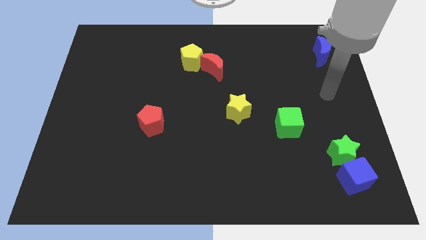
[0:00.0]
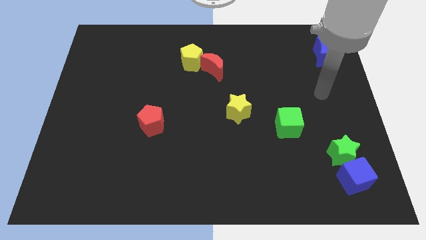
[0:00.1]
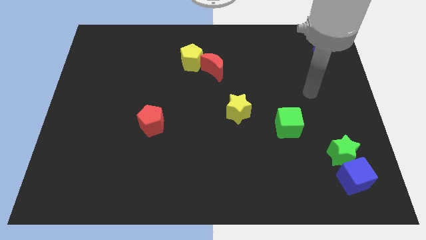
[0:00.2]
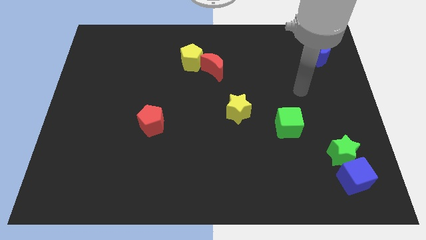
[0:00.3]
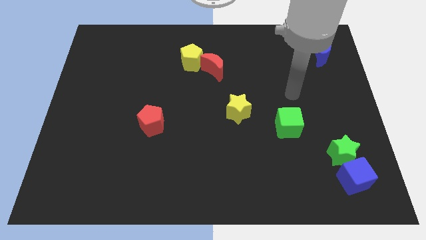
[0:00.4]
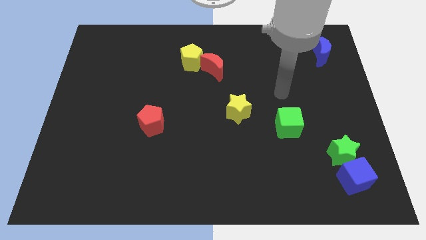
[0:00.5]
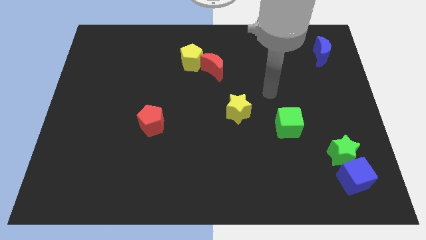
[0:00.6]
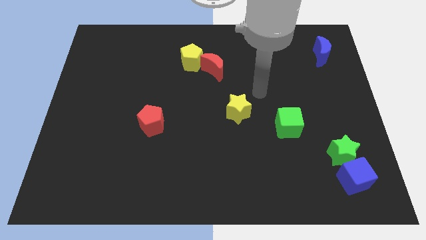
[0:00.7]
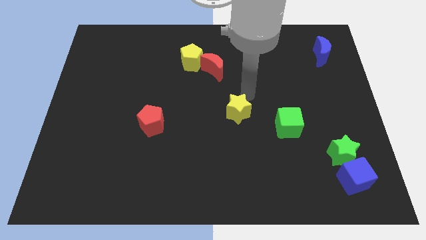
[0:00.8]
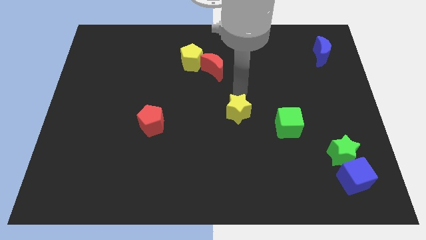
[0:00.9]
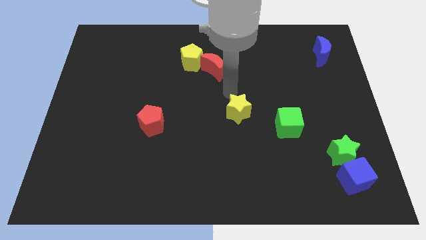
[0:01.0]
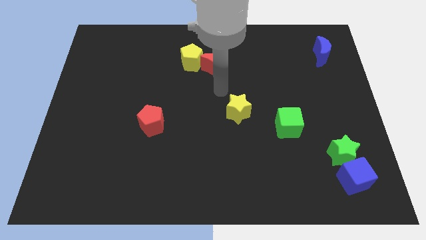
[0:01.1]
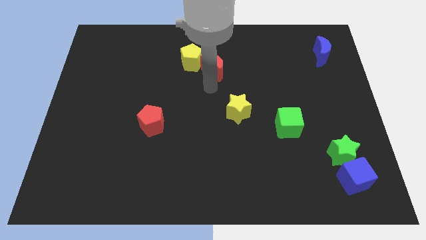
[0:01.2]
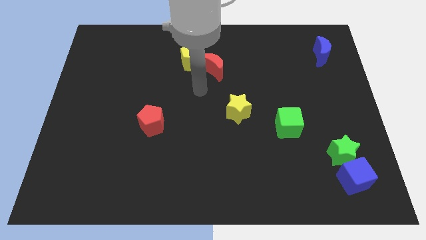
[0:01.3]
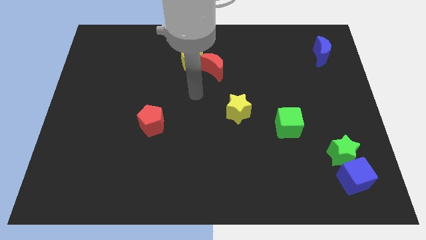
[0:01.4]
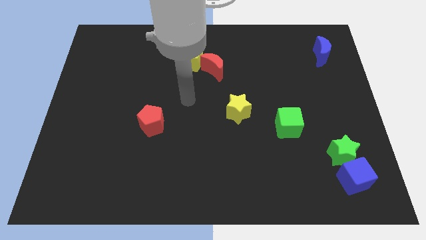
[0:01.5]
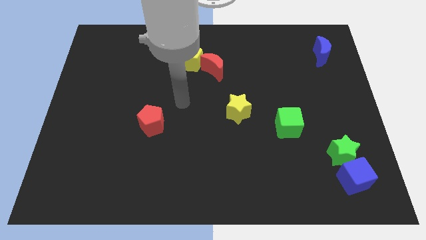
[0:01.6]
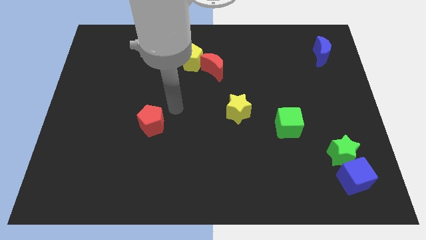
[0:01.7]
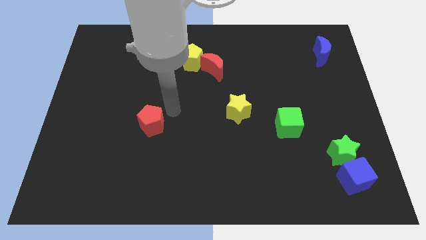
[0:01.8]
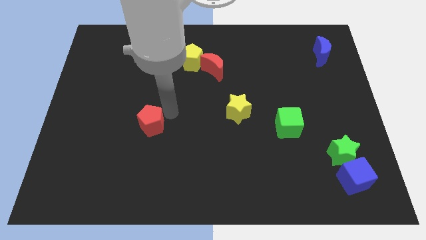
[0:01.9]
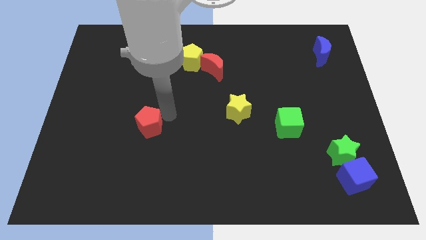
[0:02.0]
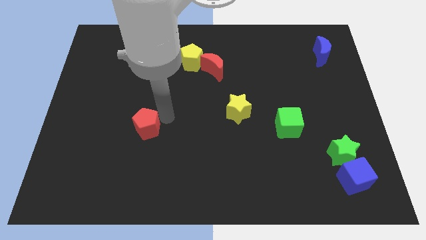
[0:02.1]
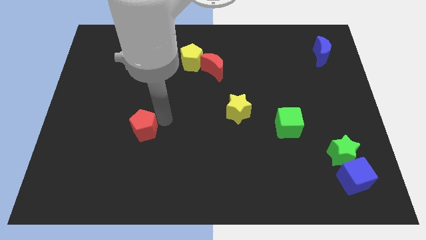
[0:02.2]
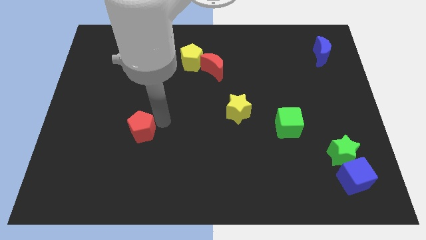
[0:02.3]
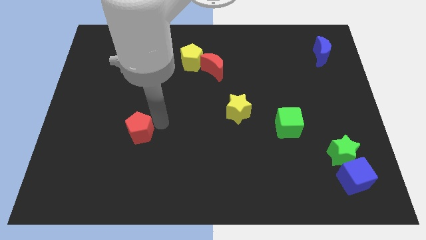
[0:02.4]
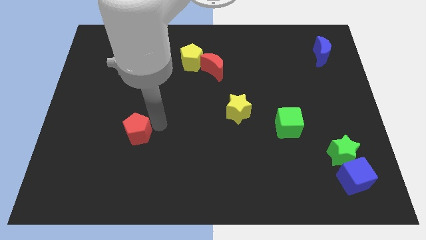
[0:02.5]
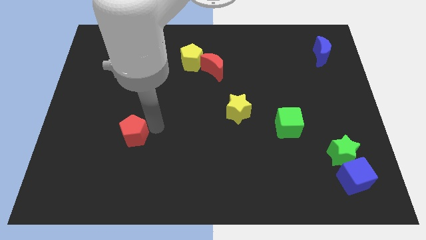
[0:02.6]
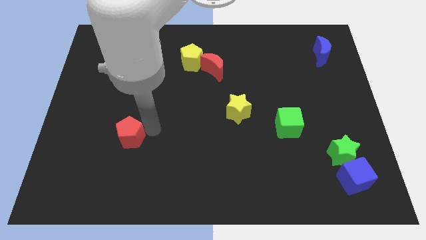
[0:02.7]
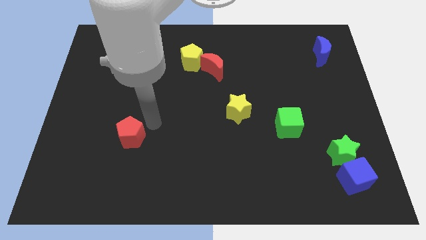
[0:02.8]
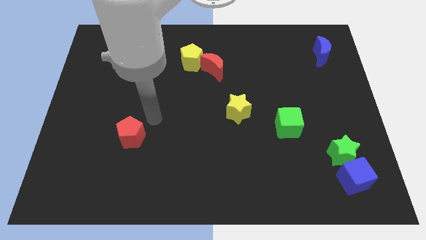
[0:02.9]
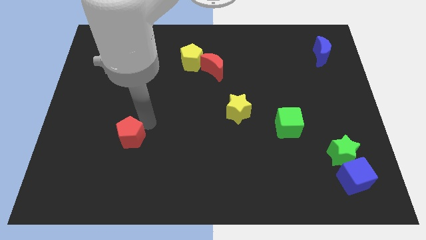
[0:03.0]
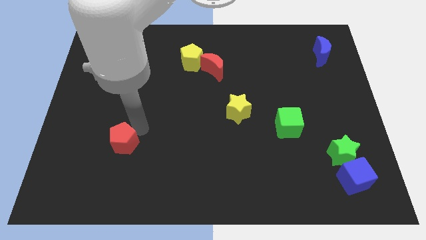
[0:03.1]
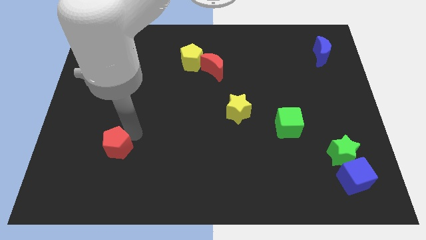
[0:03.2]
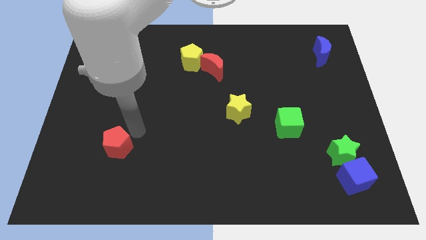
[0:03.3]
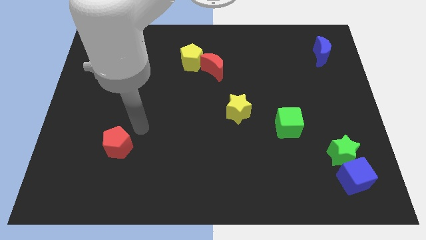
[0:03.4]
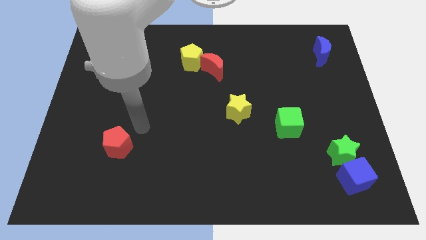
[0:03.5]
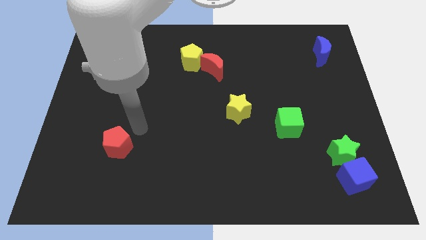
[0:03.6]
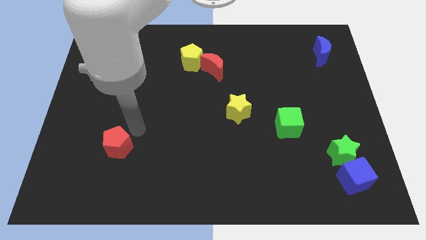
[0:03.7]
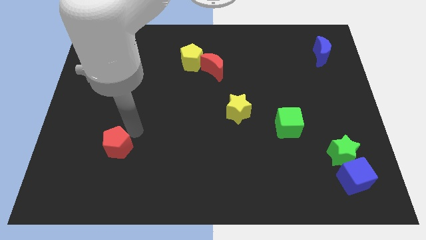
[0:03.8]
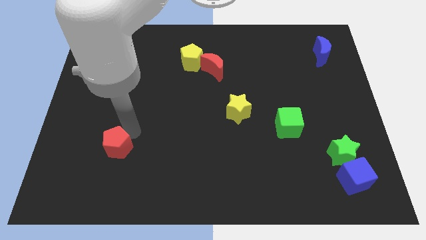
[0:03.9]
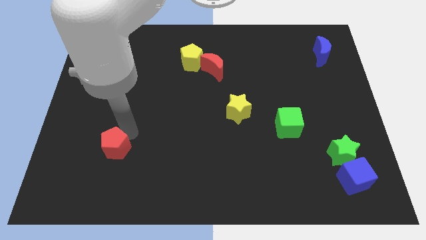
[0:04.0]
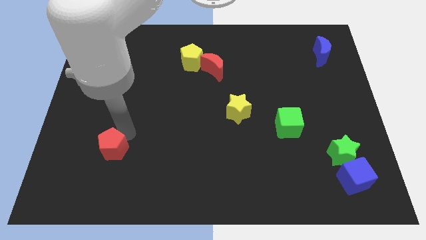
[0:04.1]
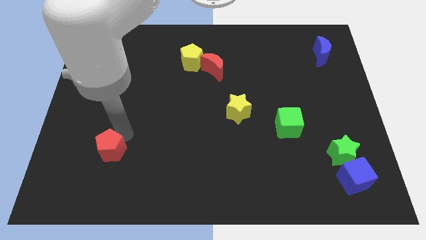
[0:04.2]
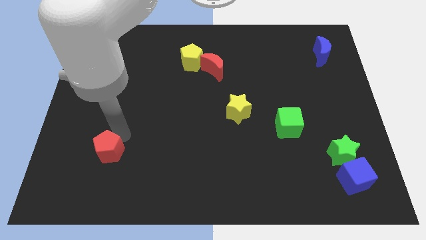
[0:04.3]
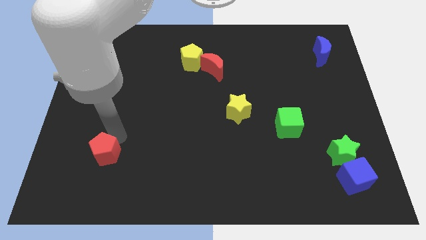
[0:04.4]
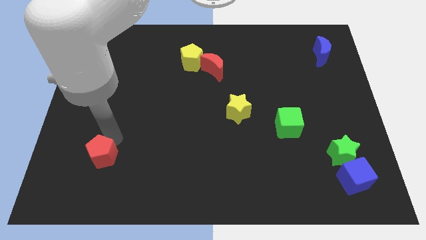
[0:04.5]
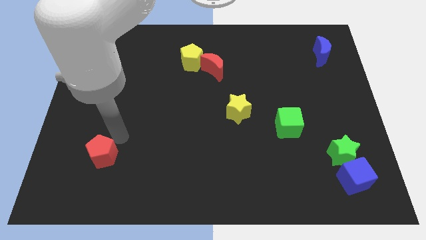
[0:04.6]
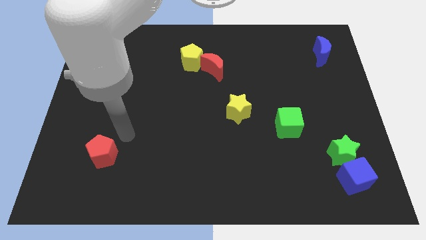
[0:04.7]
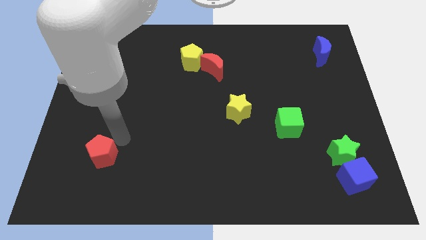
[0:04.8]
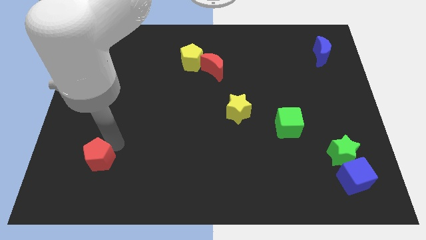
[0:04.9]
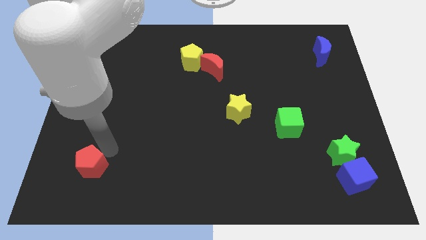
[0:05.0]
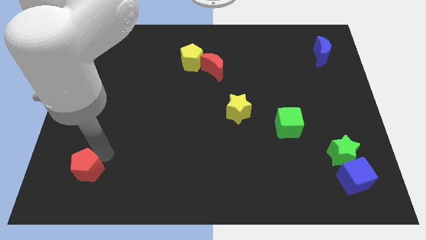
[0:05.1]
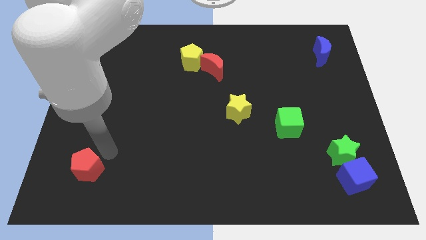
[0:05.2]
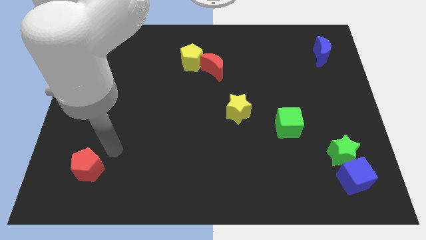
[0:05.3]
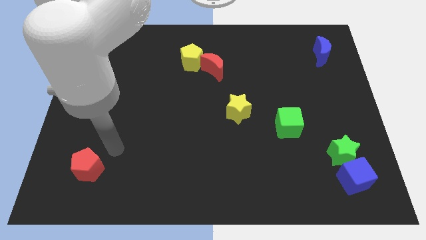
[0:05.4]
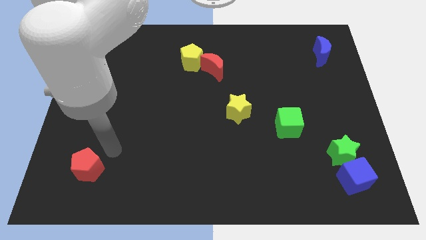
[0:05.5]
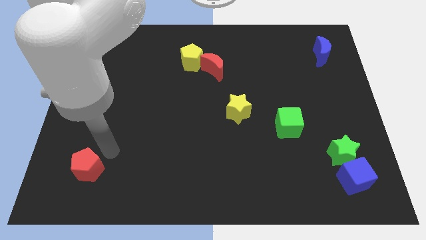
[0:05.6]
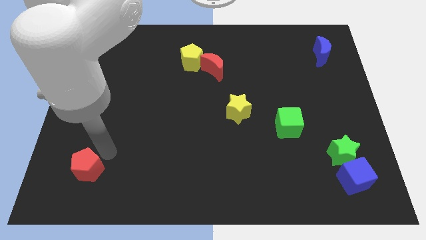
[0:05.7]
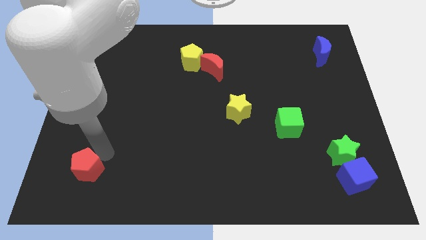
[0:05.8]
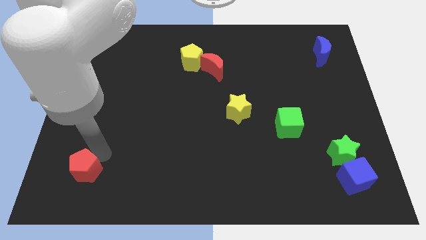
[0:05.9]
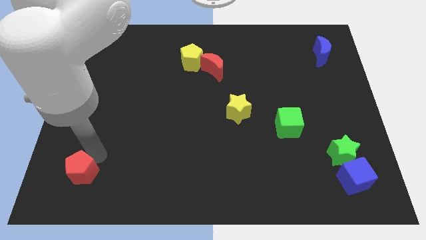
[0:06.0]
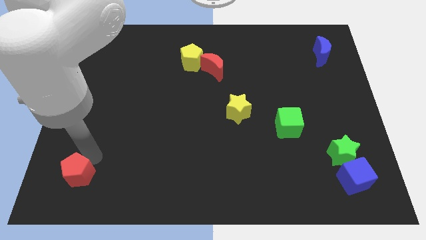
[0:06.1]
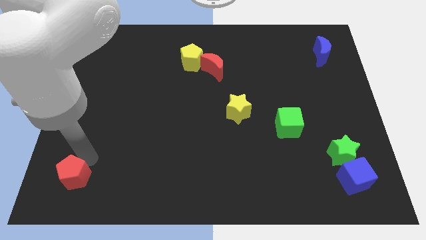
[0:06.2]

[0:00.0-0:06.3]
move the red pentagon to the lower left corner
